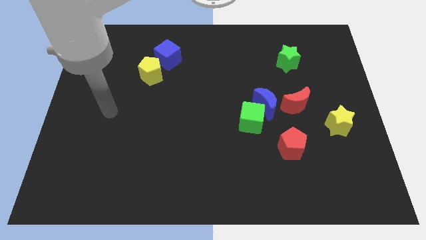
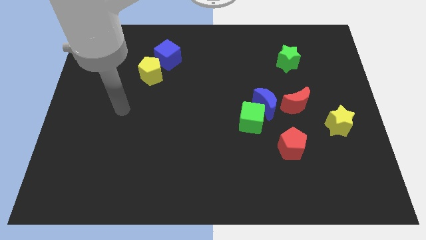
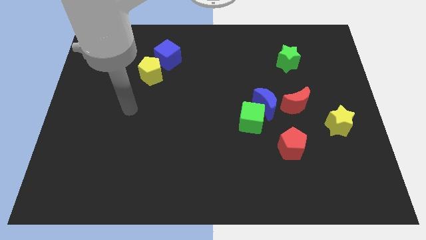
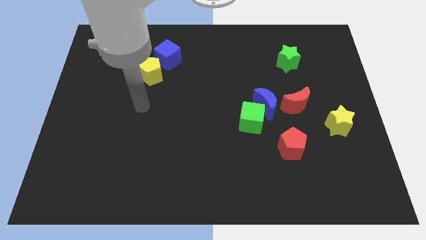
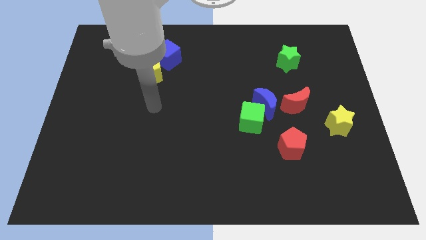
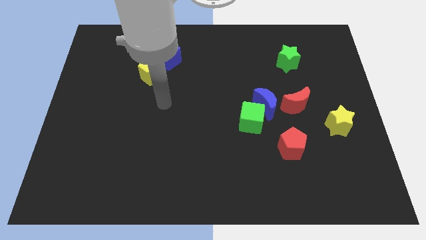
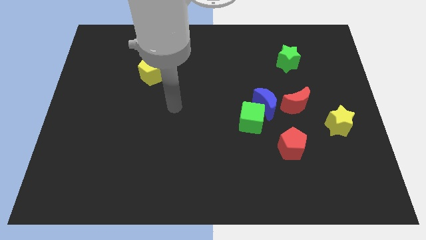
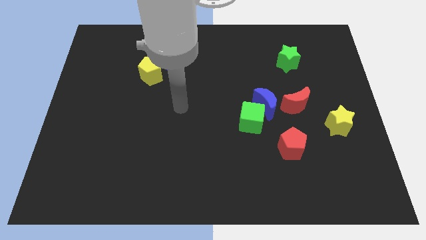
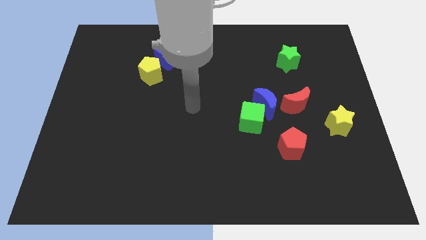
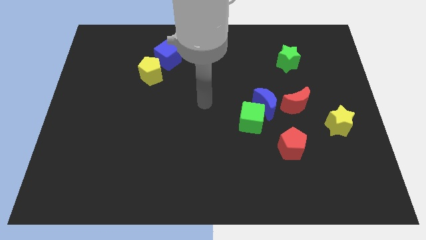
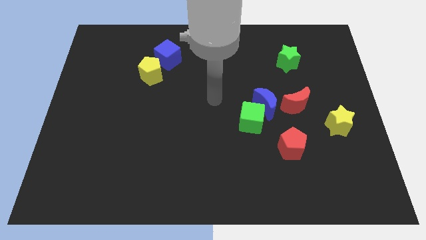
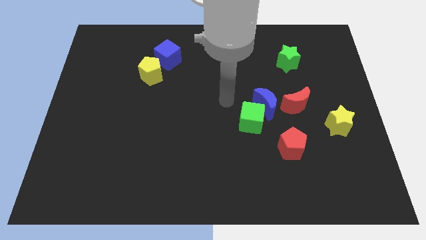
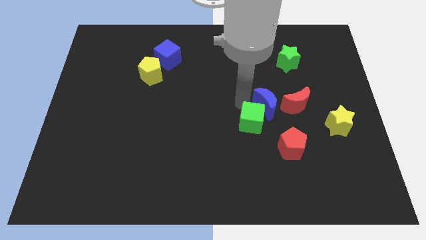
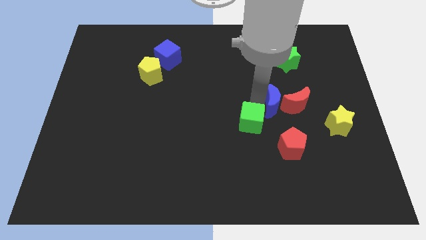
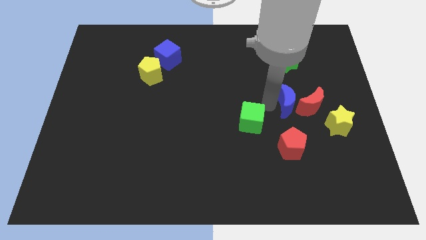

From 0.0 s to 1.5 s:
separate the green cube from the blue moon

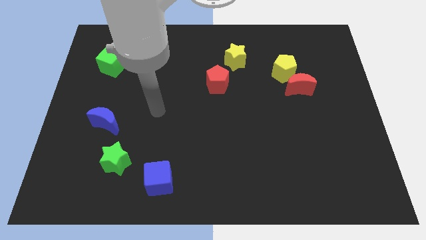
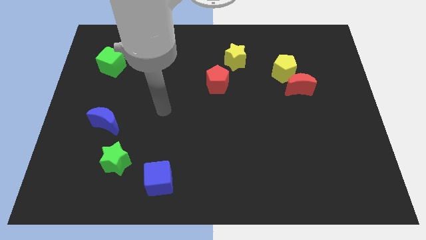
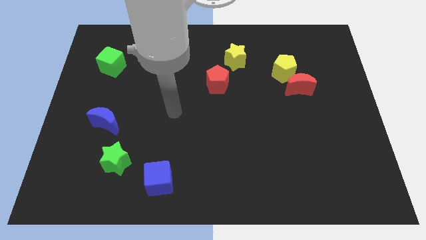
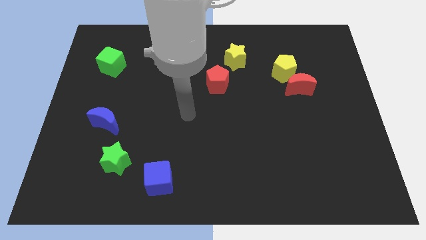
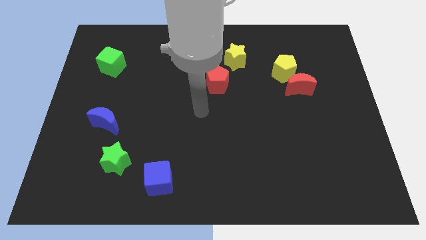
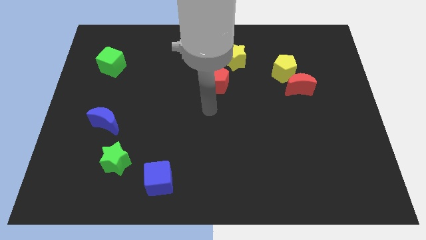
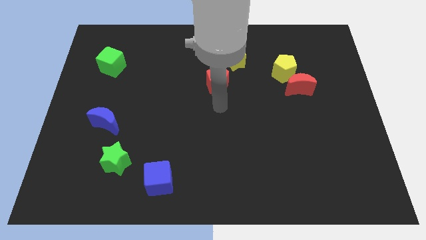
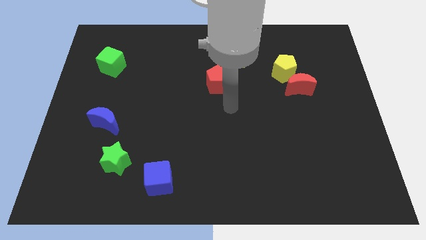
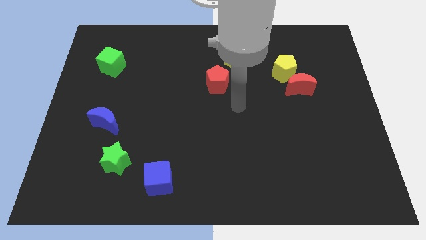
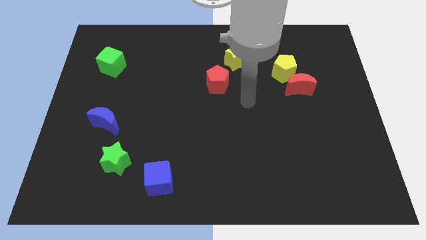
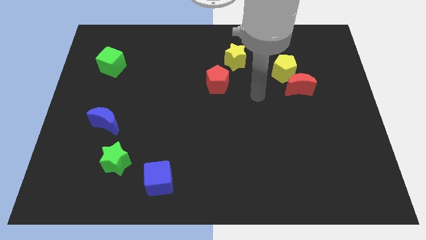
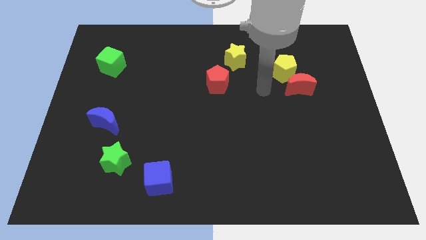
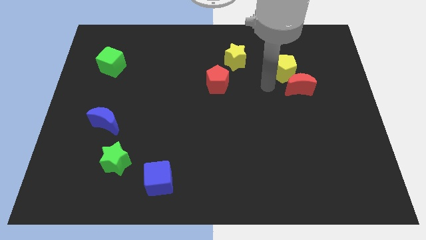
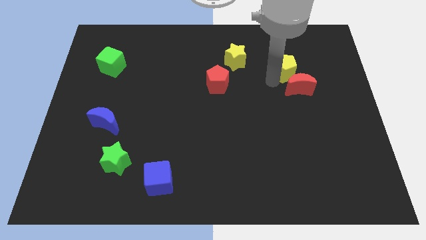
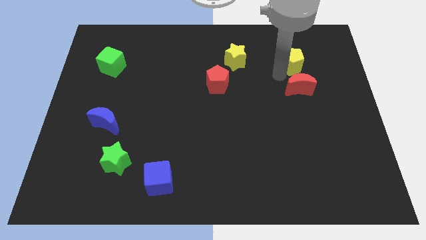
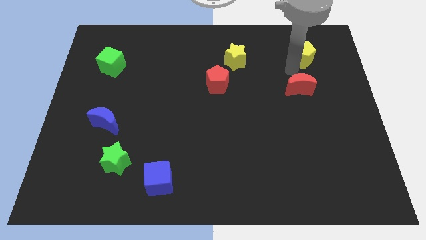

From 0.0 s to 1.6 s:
move the red moon away from the yellow pentagon

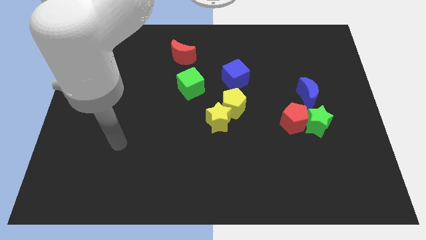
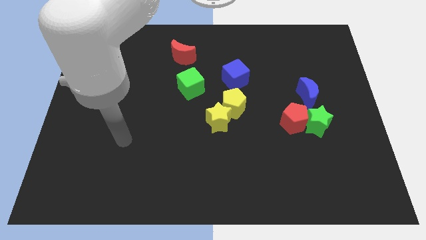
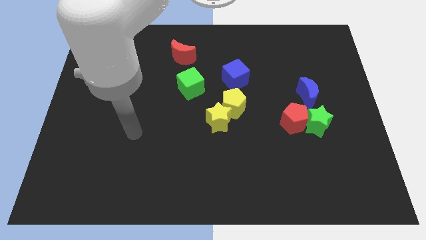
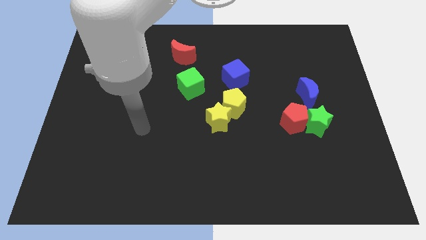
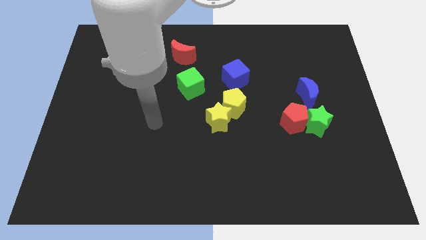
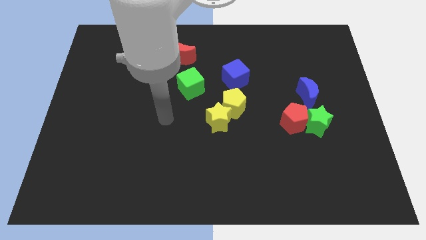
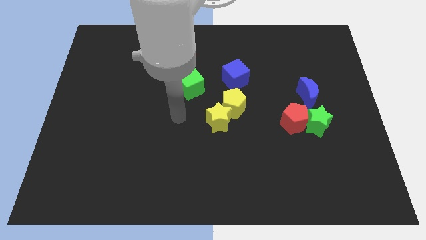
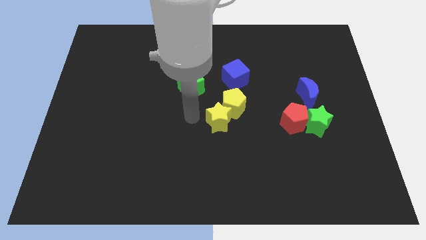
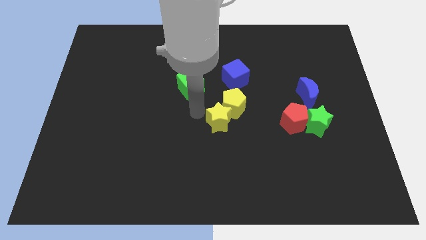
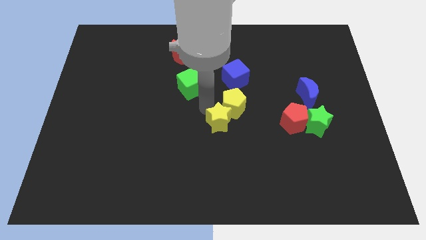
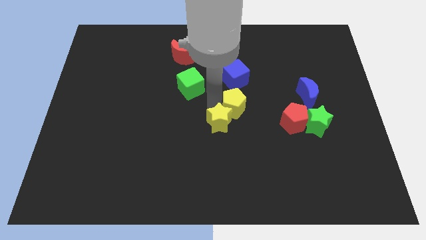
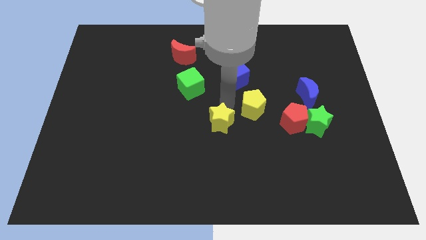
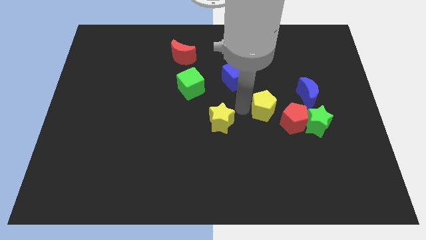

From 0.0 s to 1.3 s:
pull the yellow star apart from the yellow pentagon

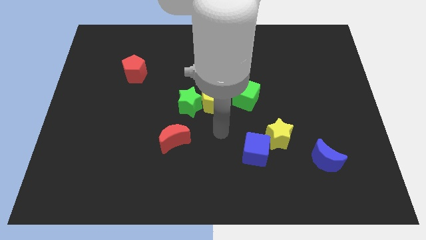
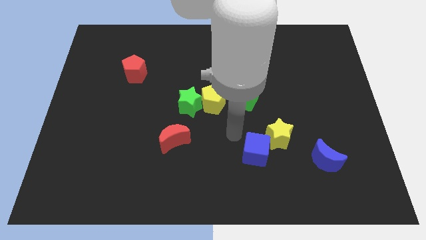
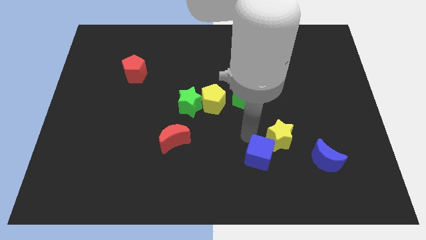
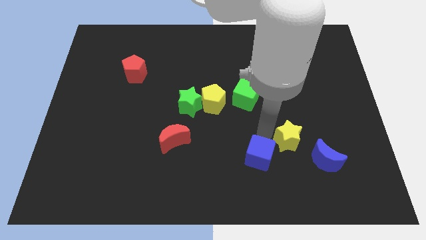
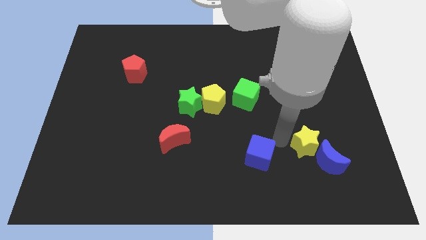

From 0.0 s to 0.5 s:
pull the blue cube apart from the yellow star

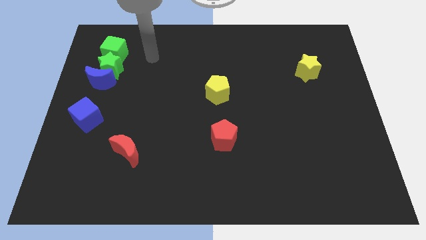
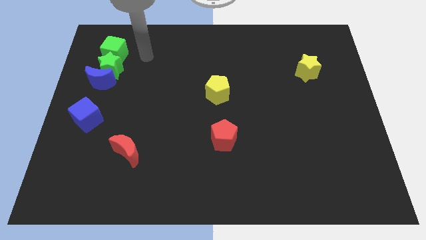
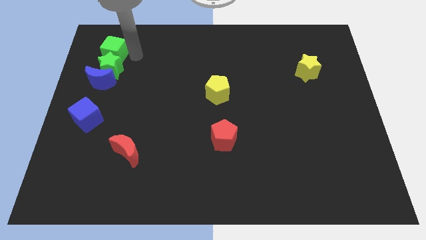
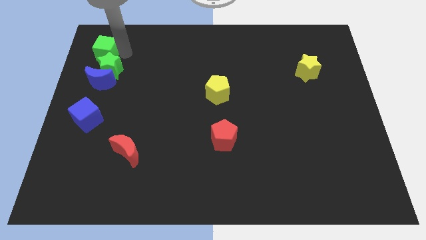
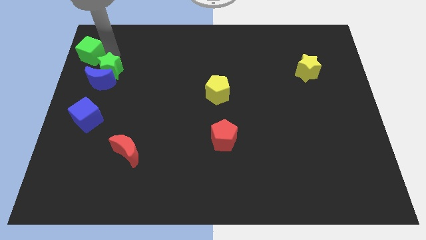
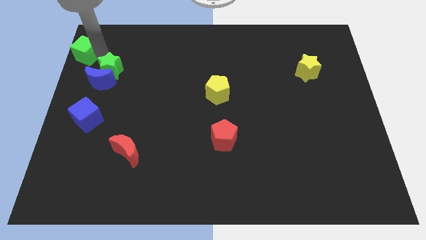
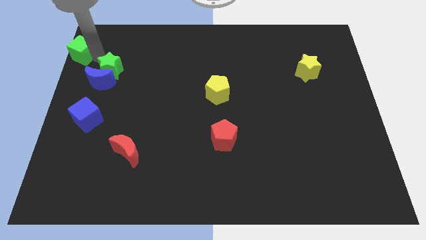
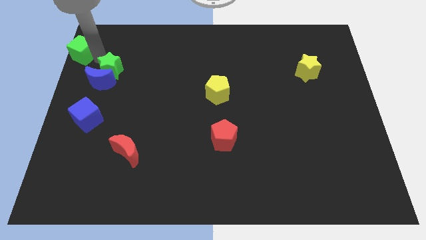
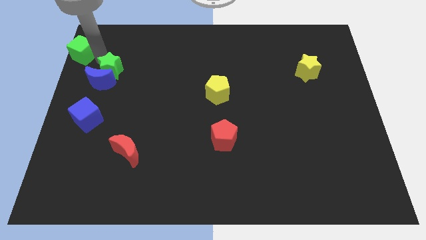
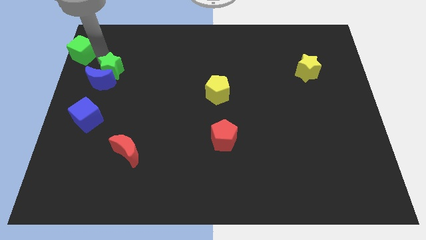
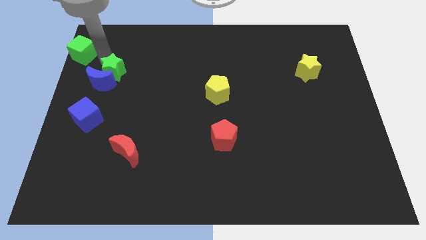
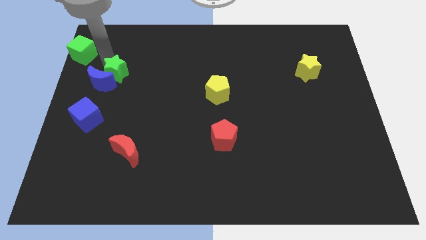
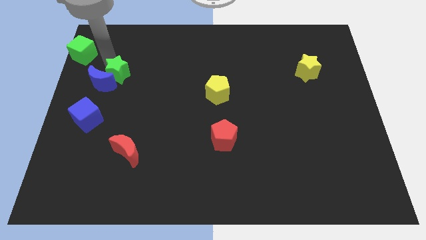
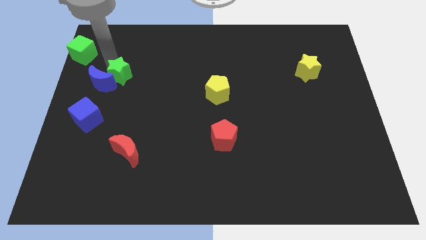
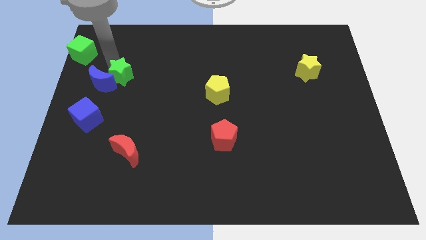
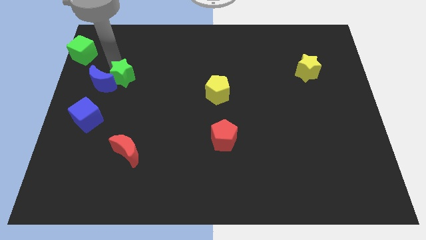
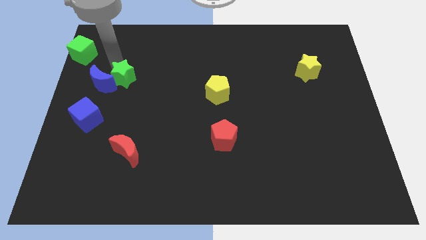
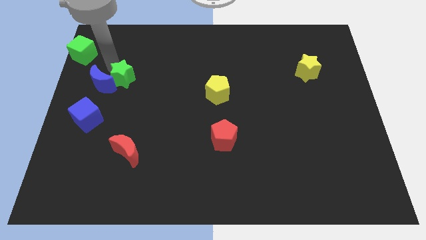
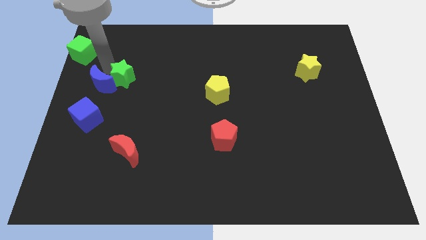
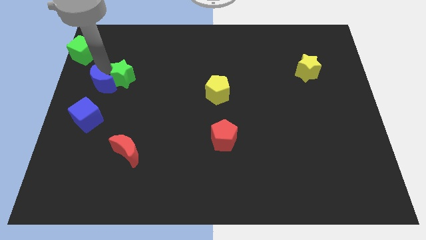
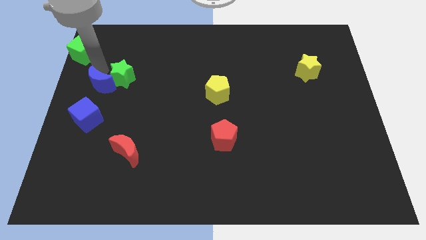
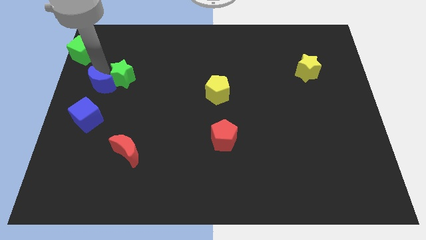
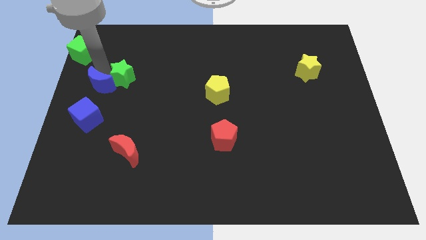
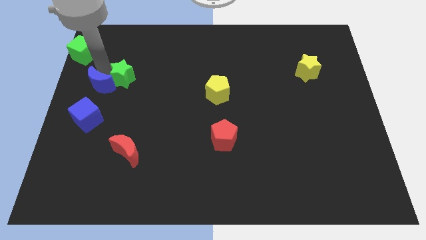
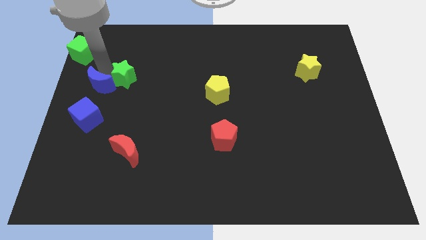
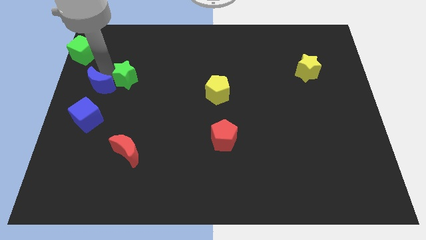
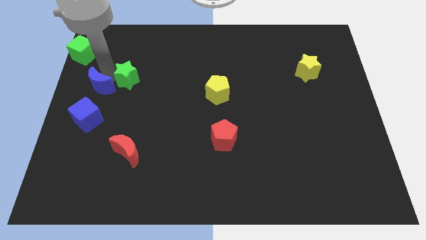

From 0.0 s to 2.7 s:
separate the green star from the blue moon and green cube

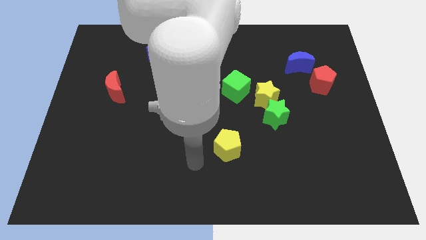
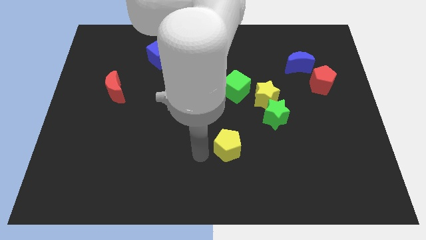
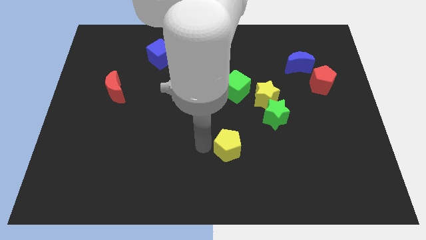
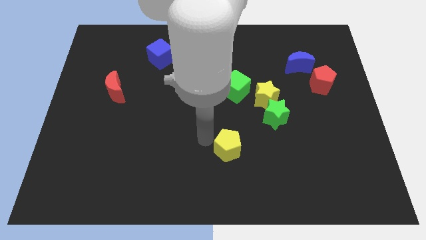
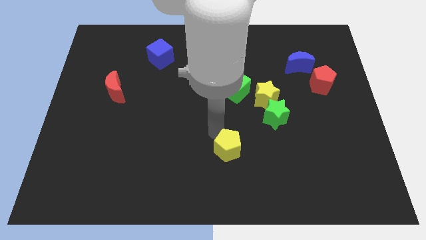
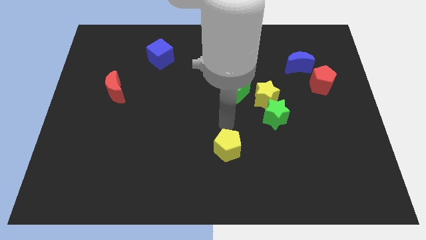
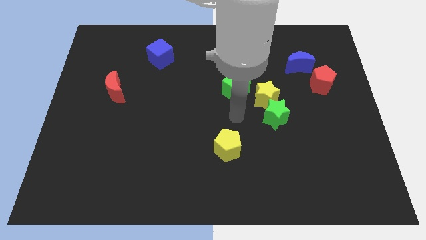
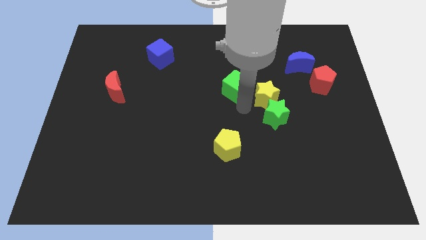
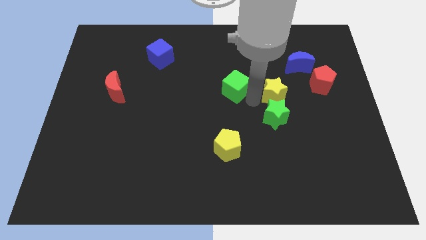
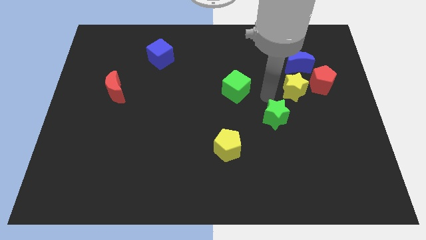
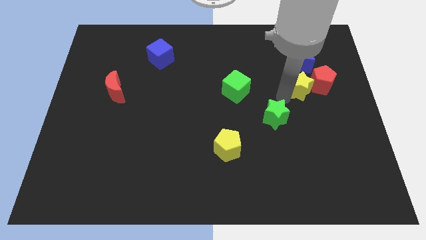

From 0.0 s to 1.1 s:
separate the green star from the yellow star

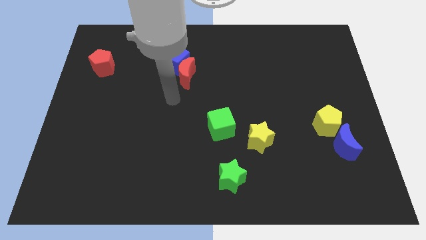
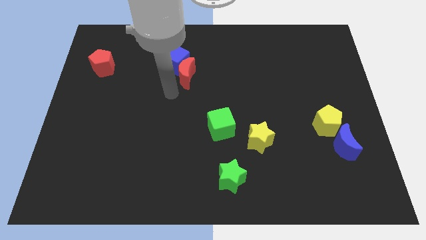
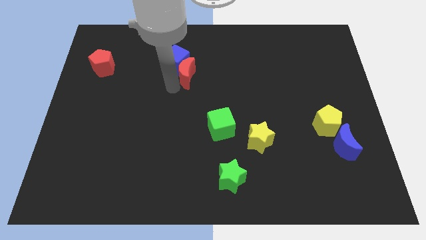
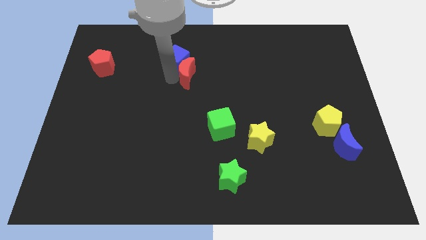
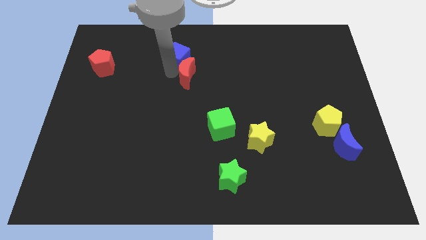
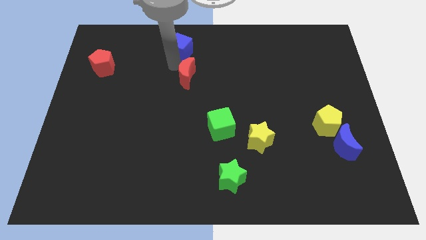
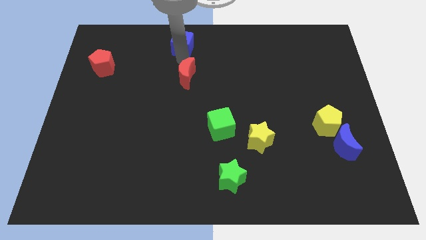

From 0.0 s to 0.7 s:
pull the red moon apart from the blue cube
